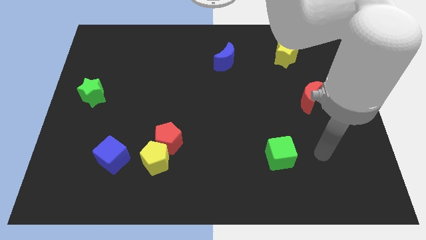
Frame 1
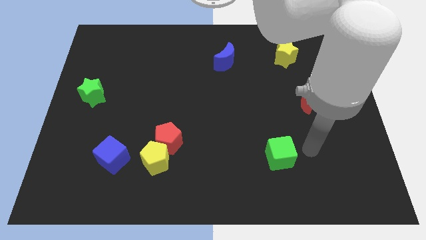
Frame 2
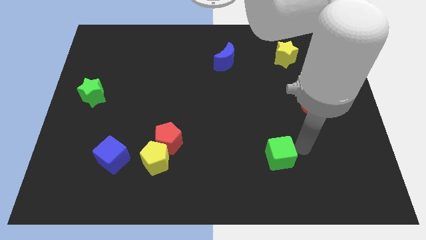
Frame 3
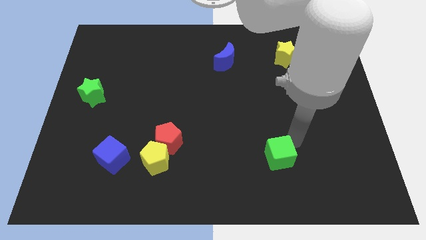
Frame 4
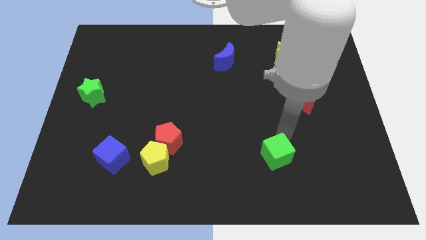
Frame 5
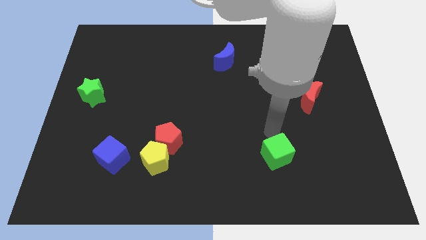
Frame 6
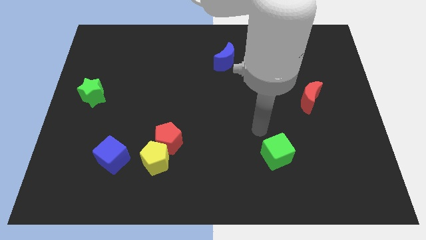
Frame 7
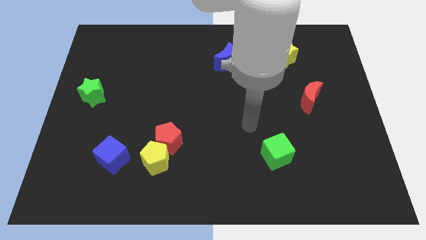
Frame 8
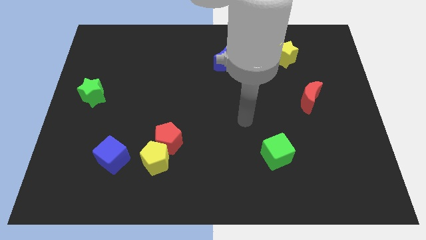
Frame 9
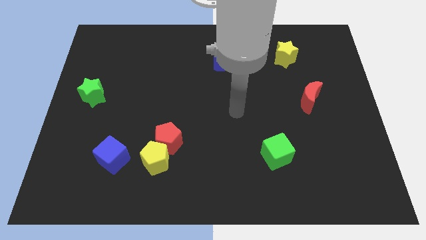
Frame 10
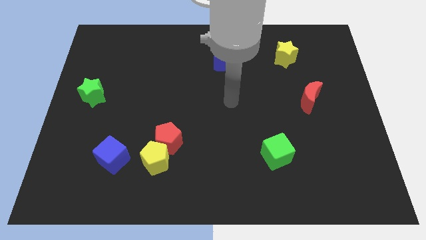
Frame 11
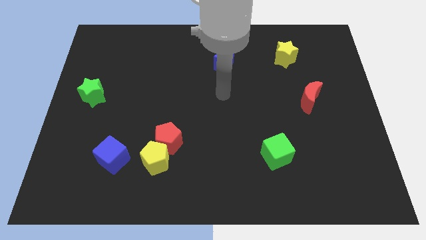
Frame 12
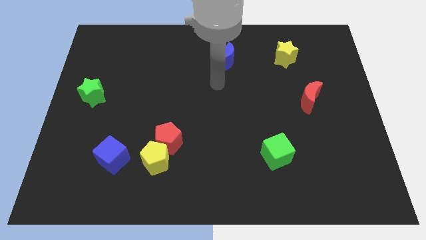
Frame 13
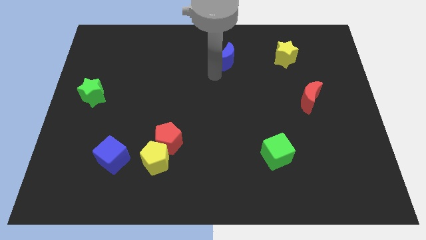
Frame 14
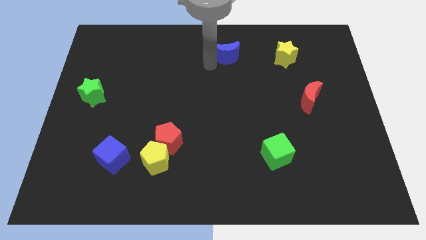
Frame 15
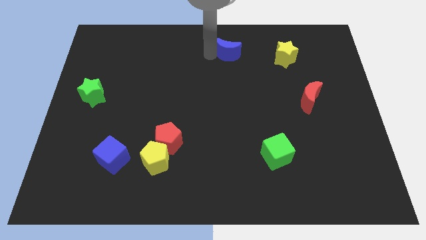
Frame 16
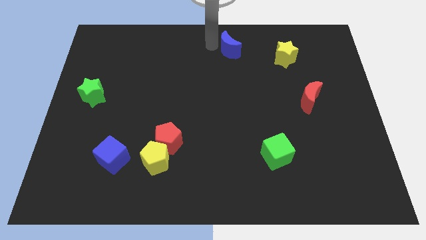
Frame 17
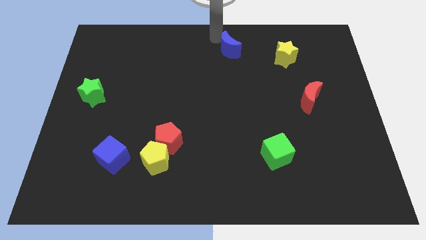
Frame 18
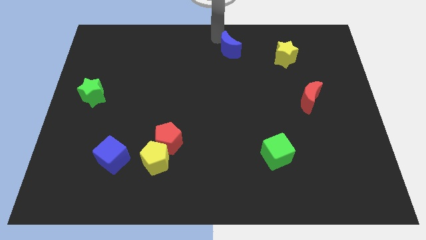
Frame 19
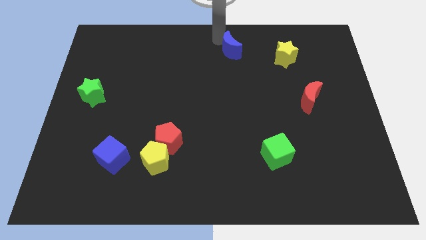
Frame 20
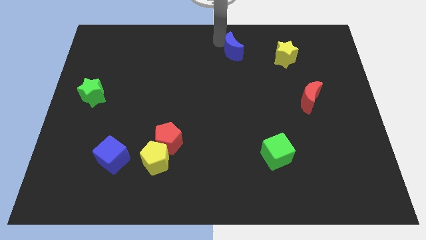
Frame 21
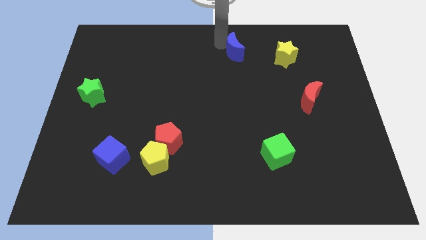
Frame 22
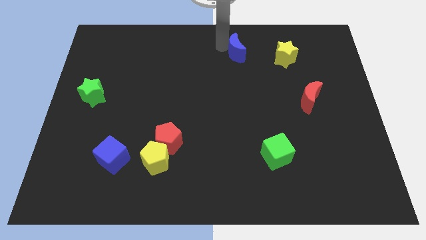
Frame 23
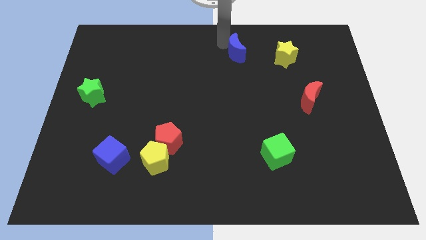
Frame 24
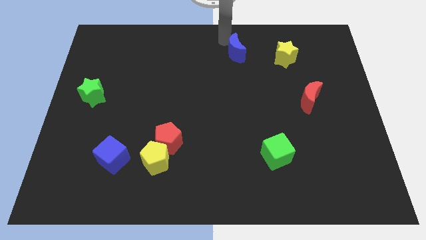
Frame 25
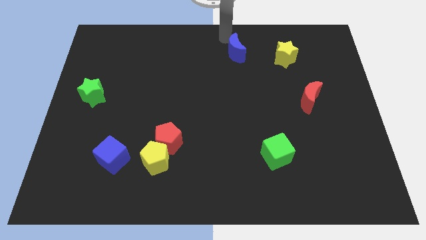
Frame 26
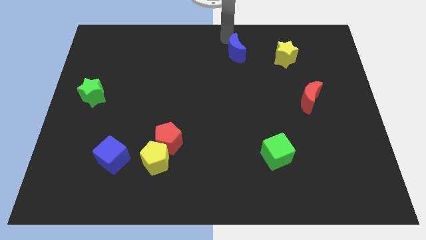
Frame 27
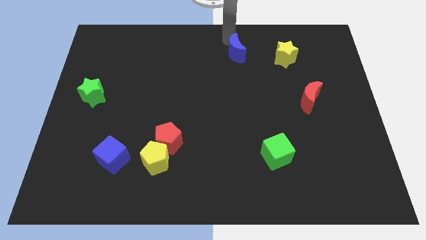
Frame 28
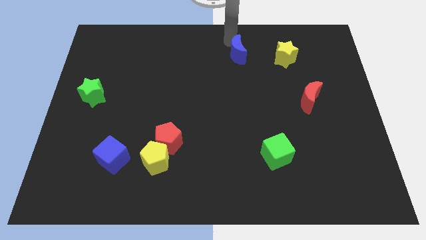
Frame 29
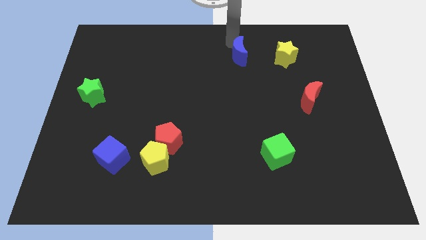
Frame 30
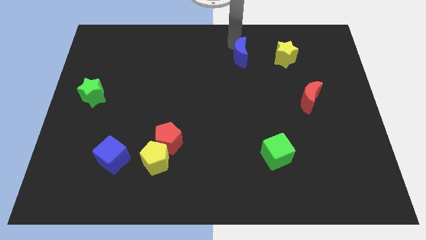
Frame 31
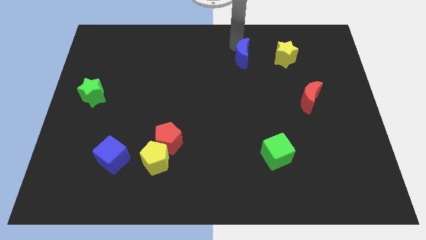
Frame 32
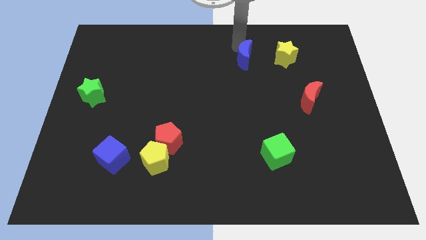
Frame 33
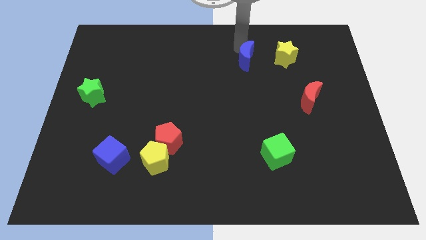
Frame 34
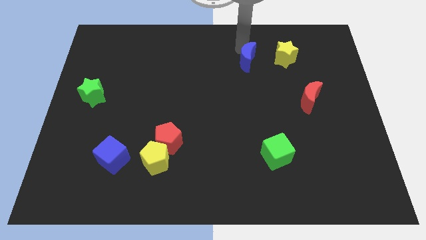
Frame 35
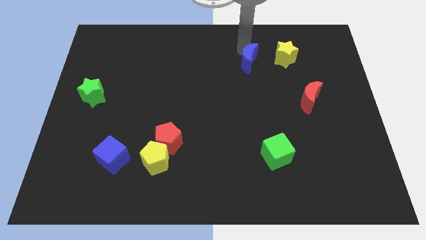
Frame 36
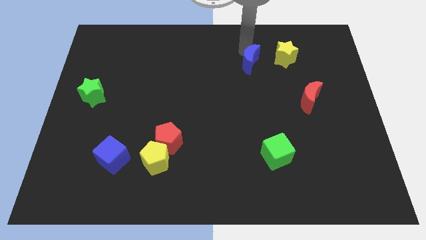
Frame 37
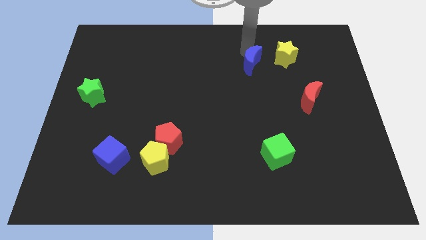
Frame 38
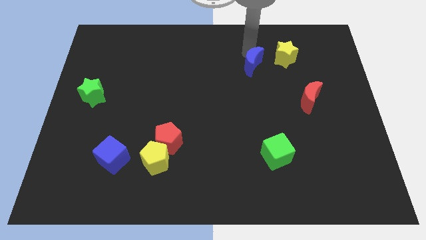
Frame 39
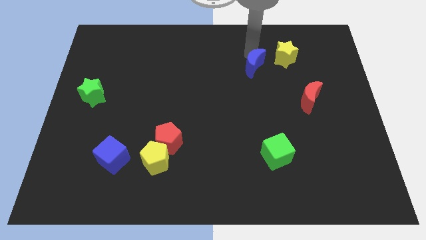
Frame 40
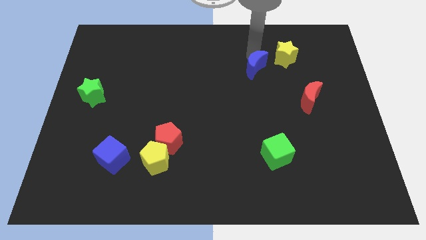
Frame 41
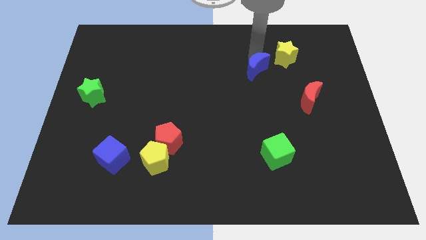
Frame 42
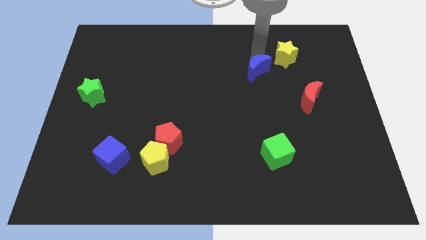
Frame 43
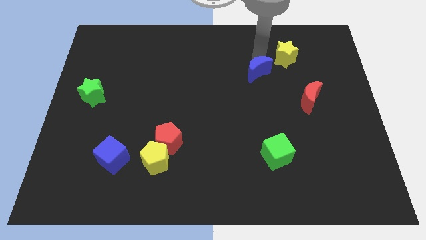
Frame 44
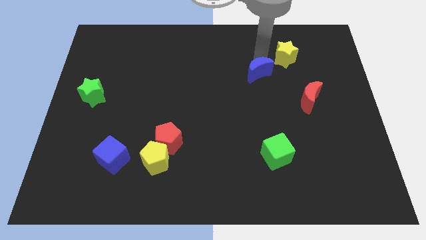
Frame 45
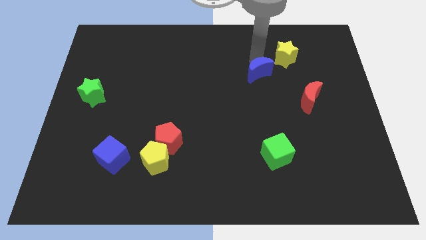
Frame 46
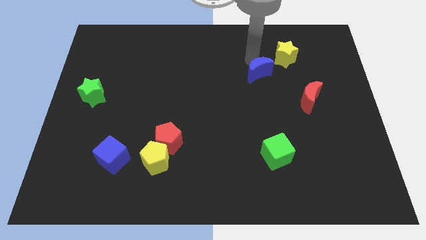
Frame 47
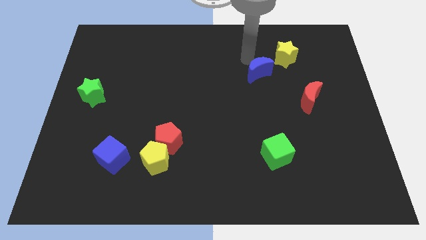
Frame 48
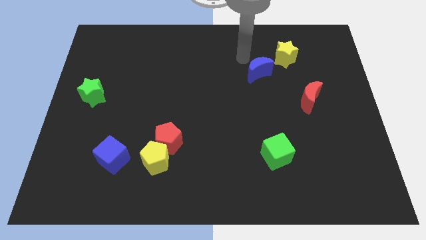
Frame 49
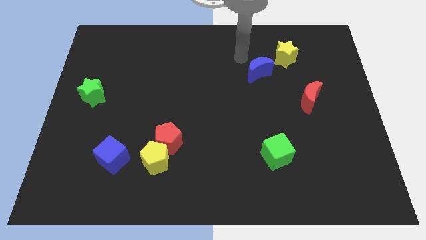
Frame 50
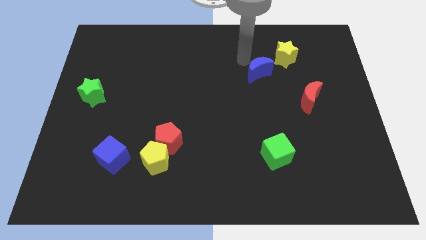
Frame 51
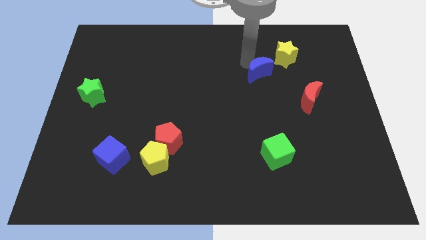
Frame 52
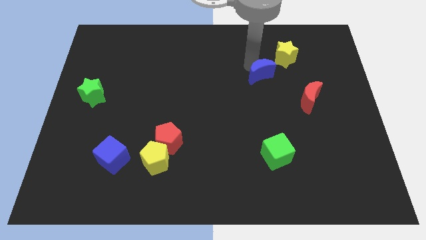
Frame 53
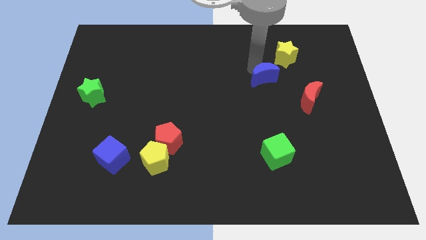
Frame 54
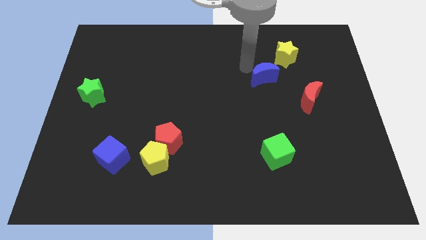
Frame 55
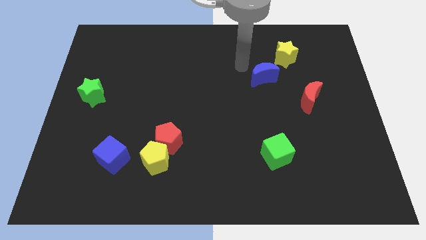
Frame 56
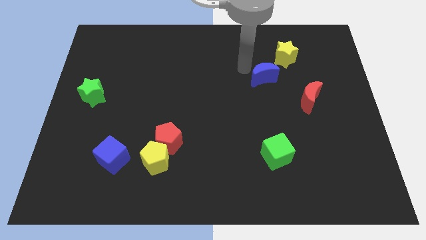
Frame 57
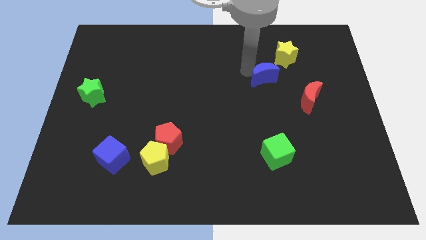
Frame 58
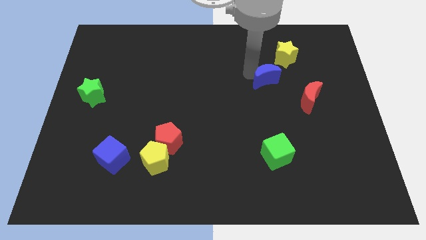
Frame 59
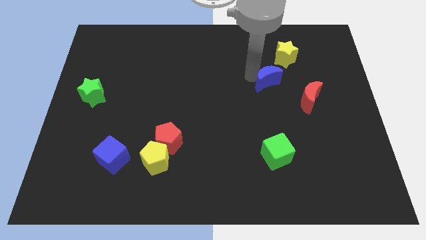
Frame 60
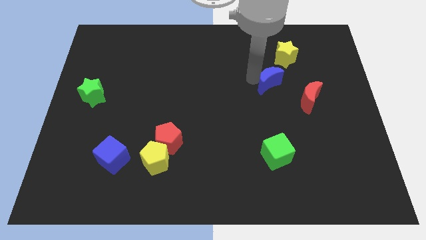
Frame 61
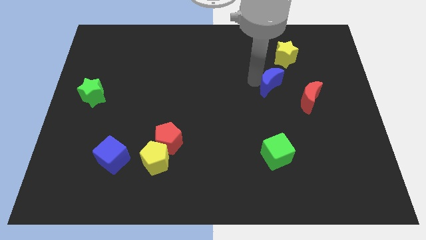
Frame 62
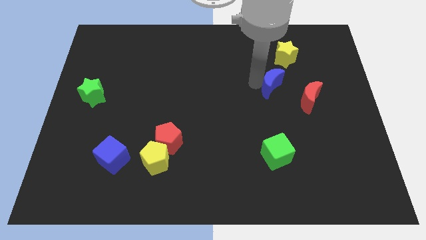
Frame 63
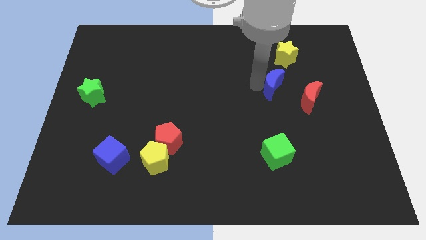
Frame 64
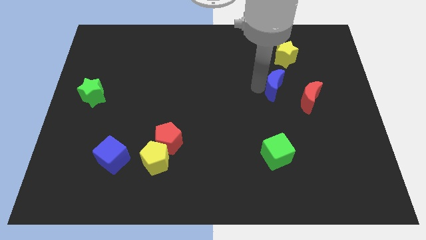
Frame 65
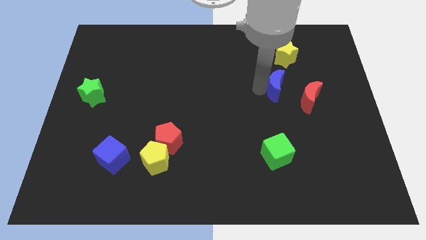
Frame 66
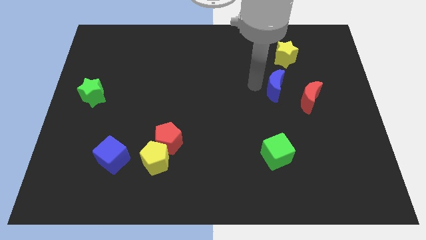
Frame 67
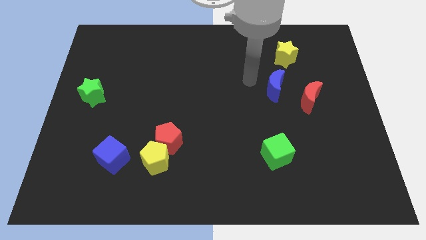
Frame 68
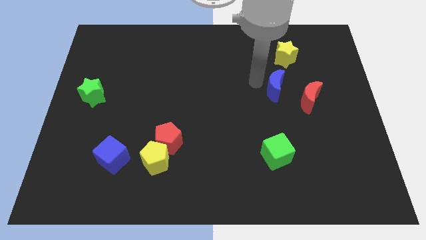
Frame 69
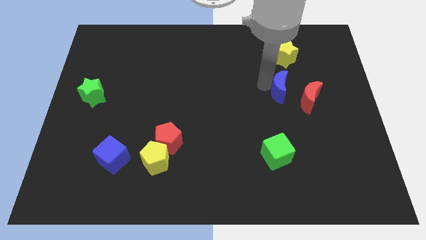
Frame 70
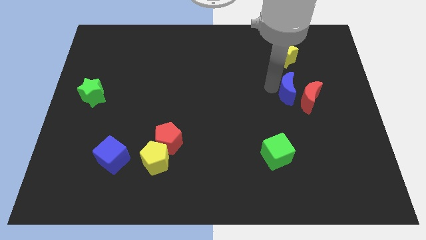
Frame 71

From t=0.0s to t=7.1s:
move the blue moon towards the red moon

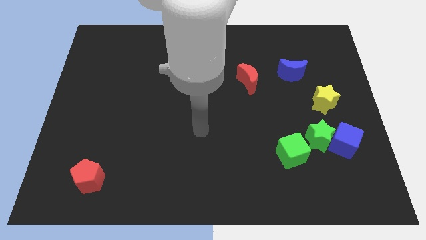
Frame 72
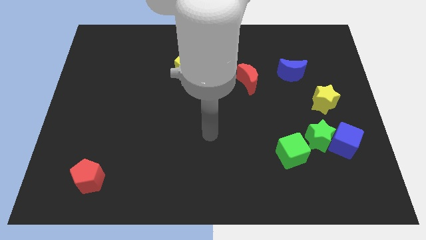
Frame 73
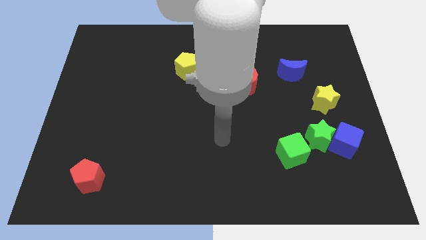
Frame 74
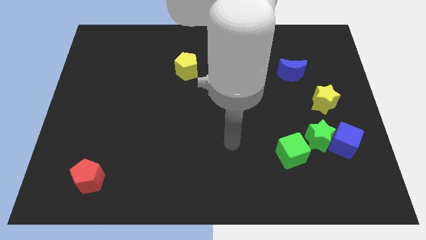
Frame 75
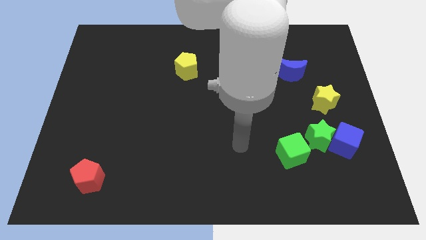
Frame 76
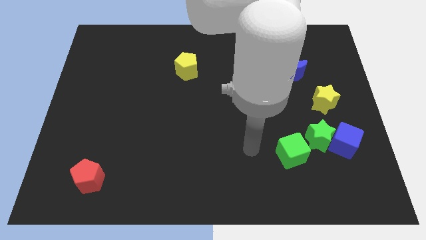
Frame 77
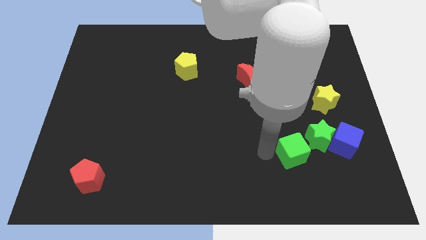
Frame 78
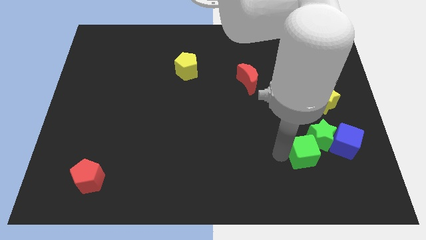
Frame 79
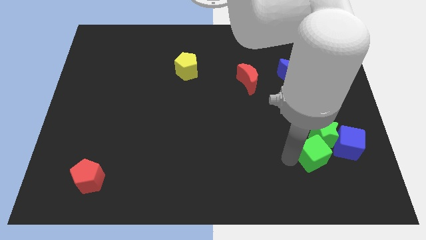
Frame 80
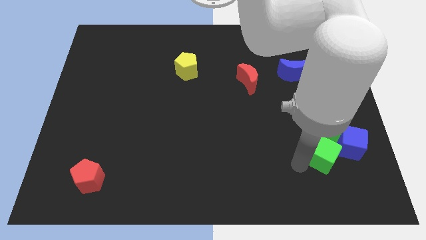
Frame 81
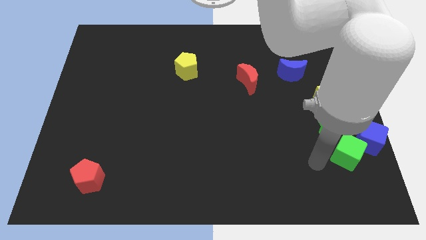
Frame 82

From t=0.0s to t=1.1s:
put the green star towards the yellow star
